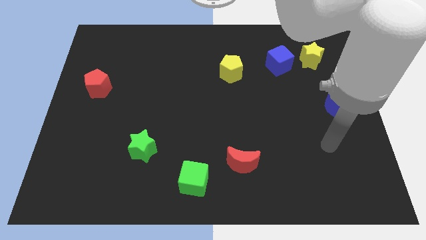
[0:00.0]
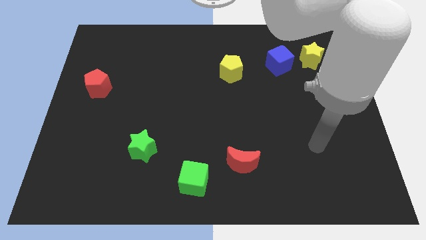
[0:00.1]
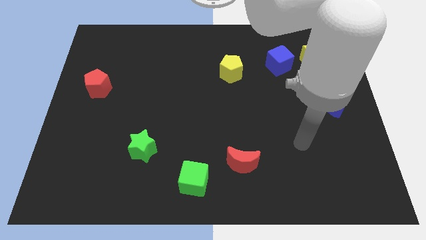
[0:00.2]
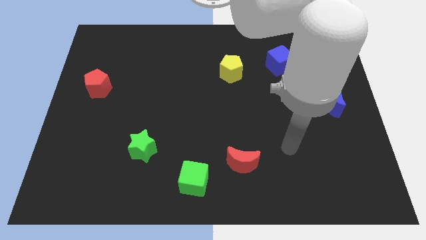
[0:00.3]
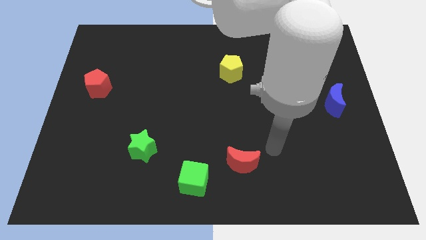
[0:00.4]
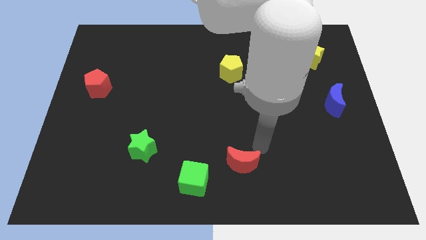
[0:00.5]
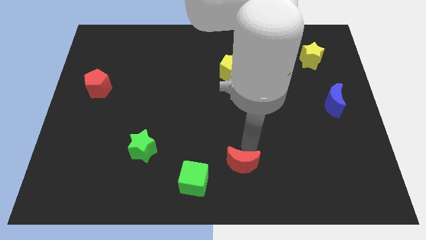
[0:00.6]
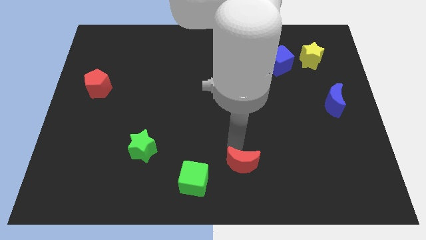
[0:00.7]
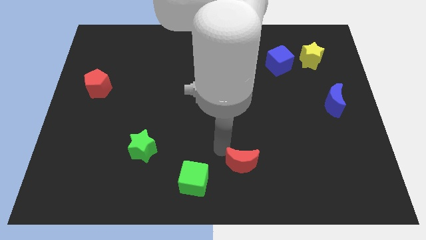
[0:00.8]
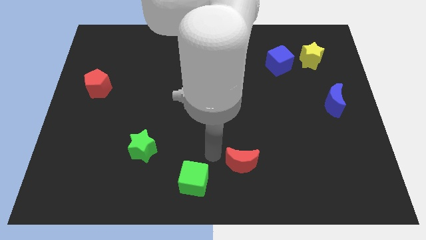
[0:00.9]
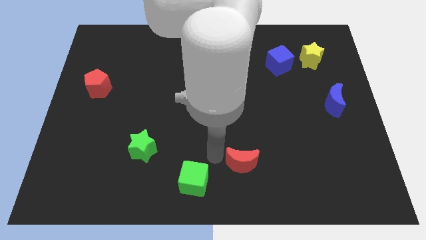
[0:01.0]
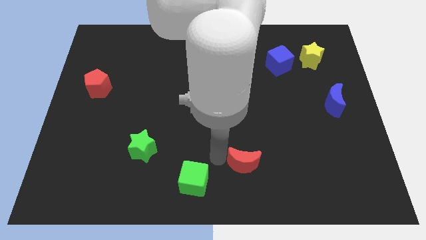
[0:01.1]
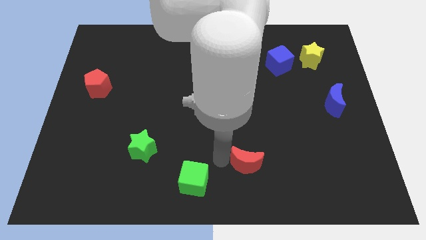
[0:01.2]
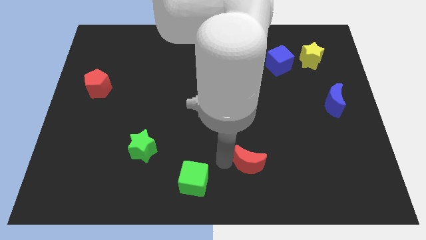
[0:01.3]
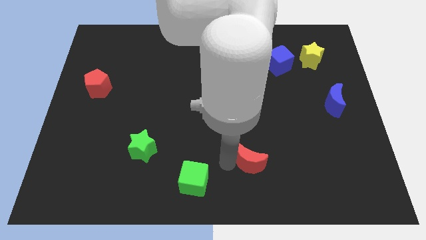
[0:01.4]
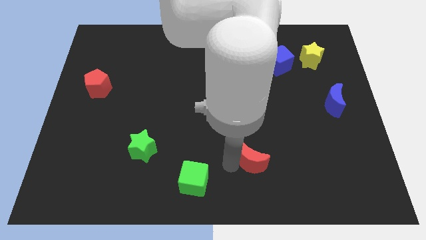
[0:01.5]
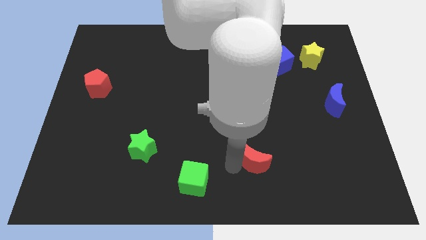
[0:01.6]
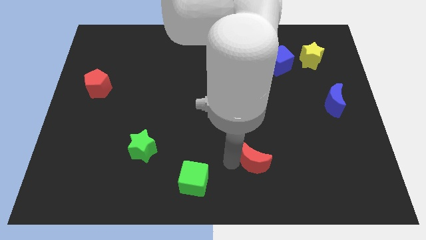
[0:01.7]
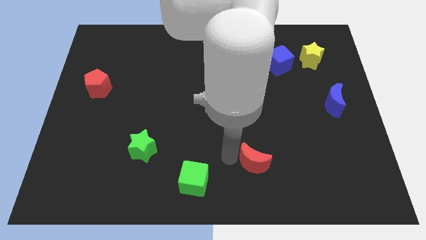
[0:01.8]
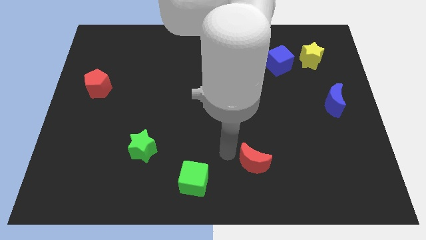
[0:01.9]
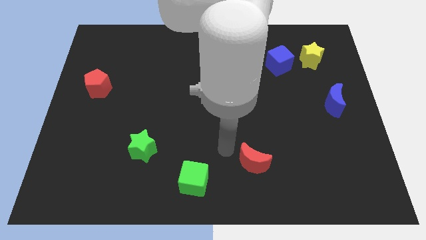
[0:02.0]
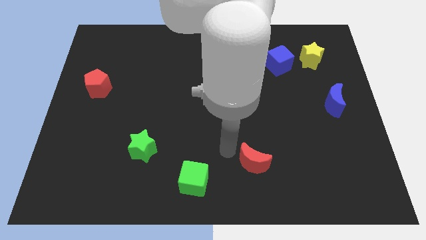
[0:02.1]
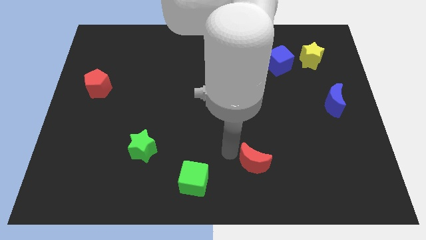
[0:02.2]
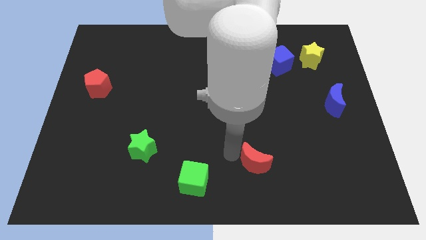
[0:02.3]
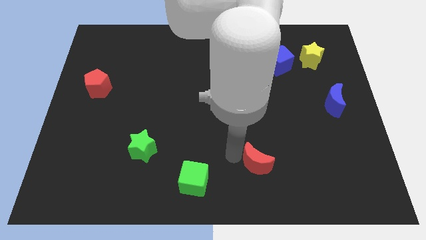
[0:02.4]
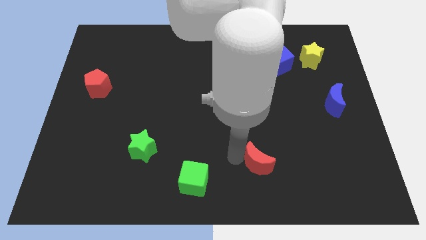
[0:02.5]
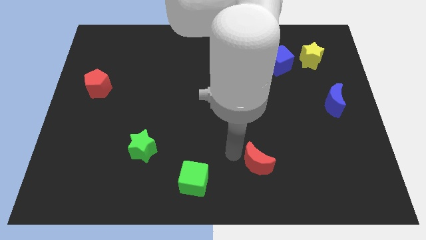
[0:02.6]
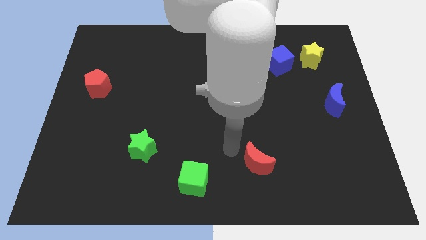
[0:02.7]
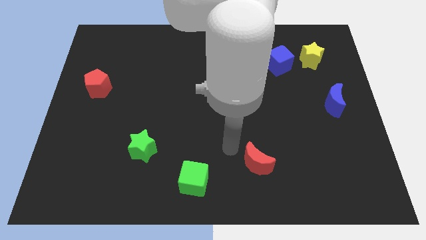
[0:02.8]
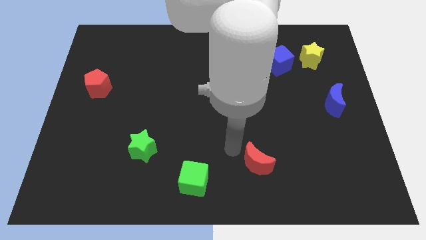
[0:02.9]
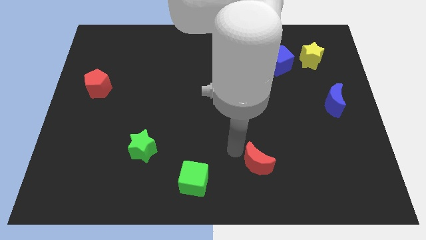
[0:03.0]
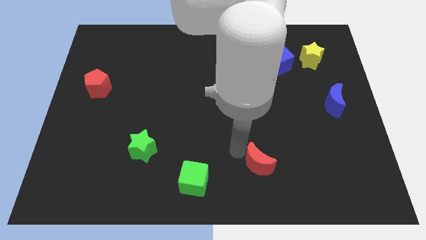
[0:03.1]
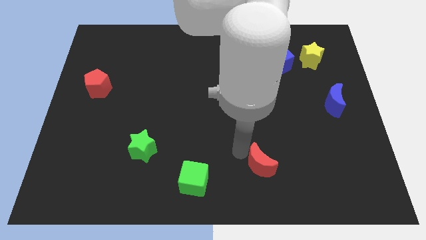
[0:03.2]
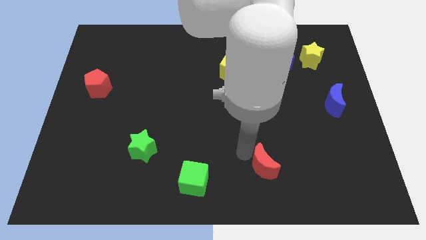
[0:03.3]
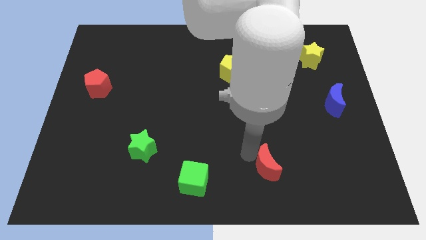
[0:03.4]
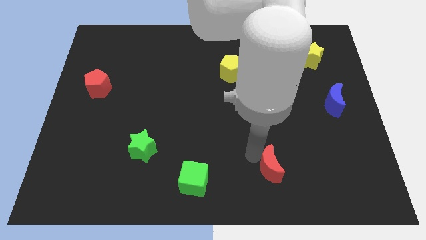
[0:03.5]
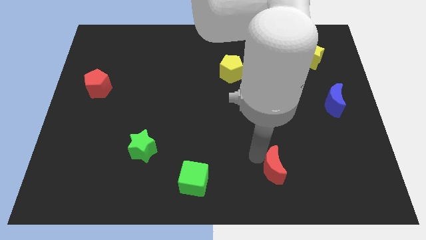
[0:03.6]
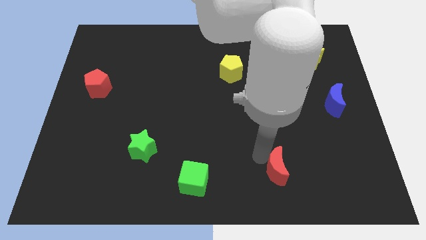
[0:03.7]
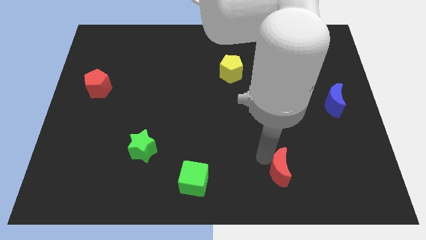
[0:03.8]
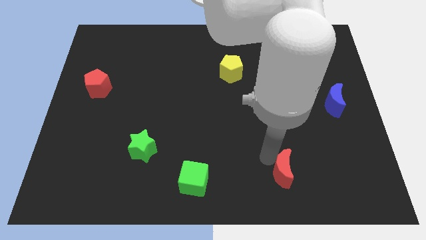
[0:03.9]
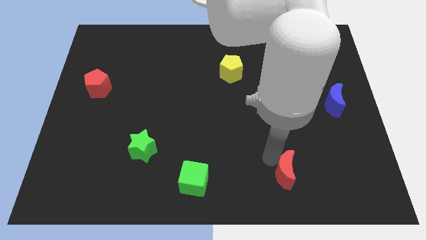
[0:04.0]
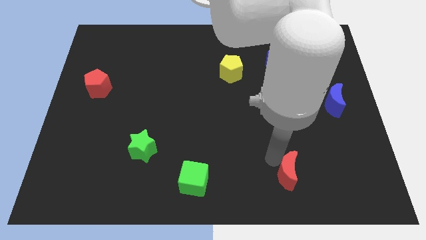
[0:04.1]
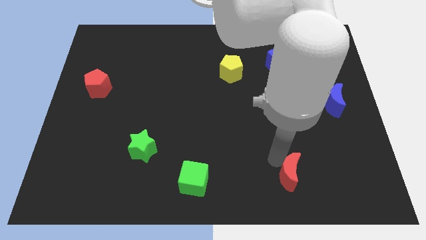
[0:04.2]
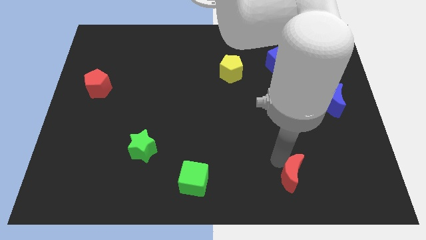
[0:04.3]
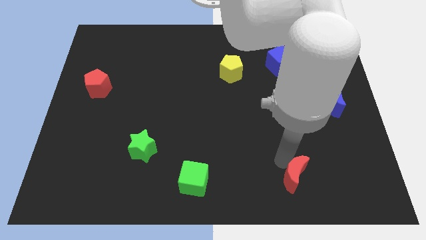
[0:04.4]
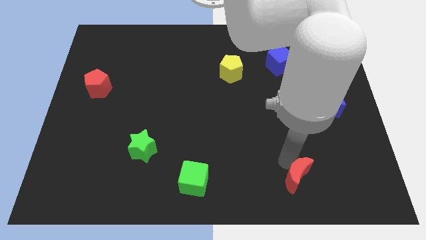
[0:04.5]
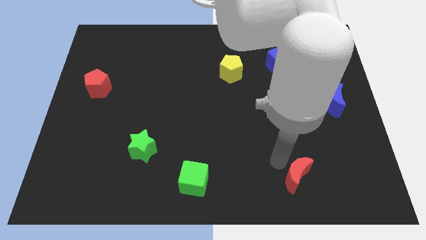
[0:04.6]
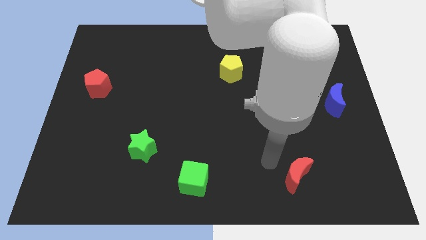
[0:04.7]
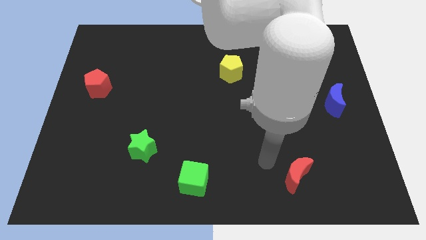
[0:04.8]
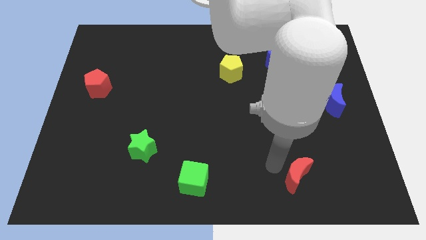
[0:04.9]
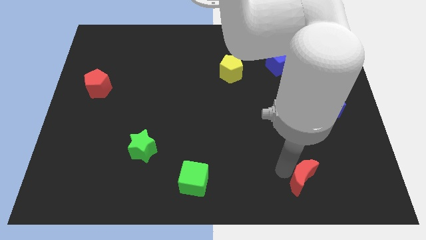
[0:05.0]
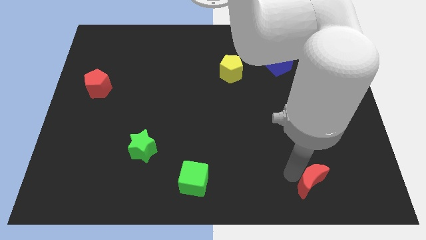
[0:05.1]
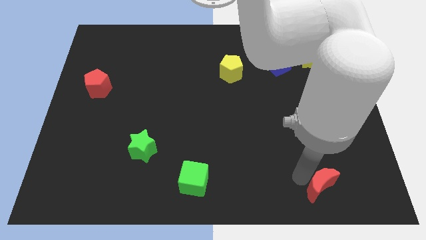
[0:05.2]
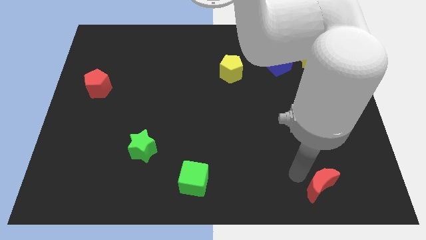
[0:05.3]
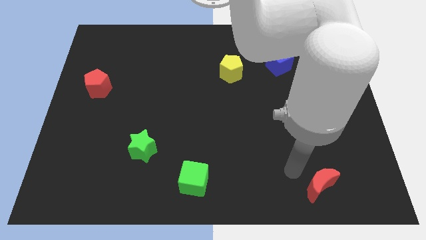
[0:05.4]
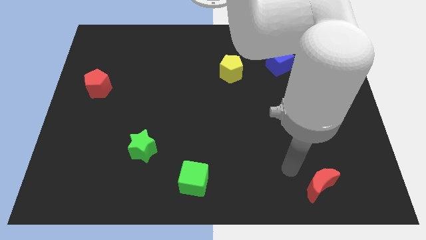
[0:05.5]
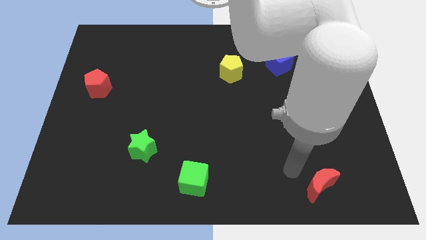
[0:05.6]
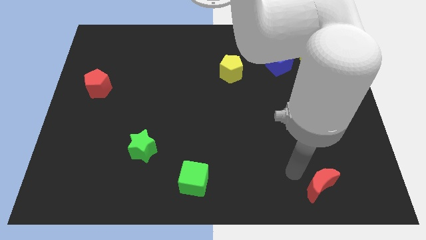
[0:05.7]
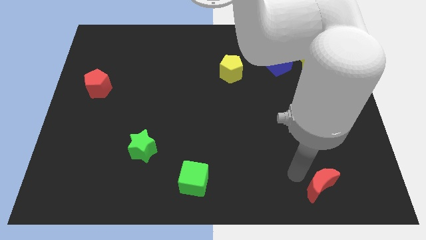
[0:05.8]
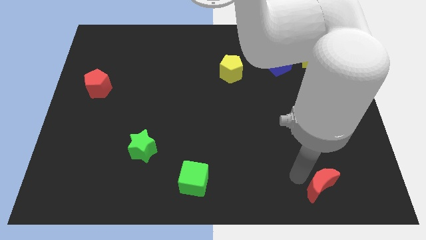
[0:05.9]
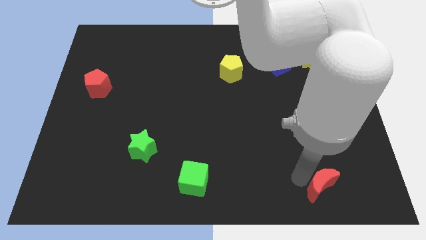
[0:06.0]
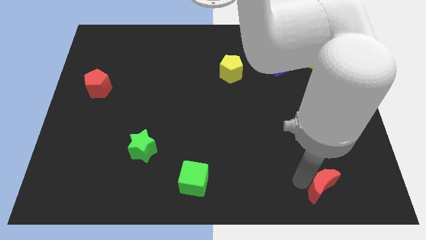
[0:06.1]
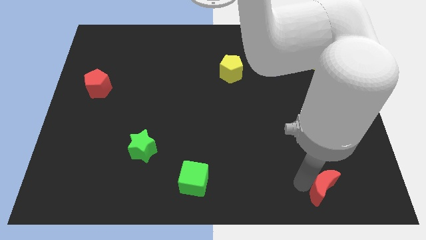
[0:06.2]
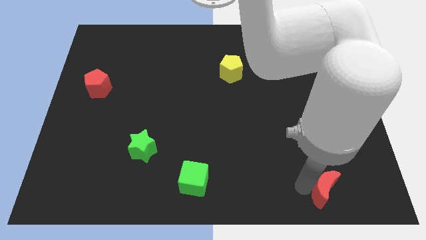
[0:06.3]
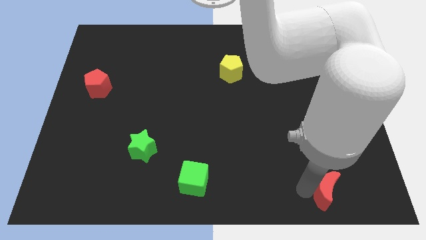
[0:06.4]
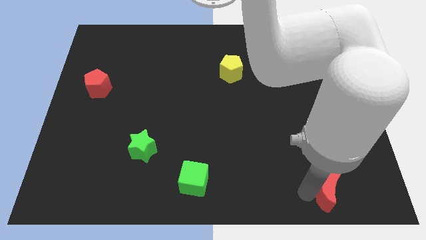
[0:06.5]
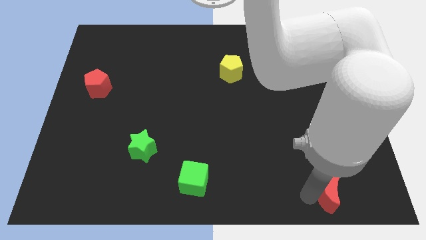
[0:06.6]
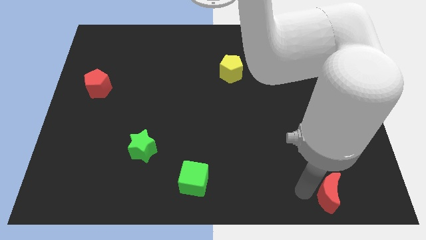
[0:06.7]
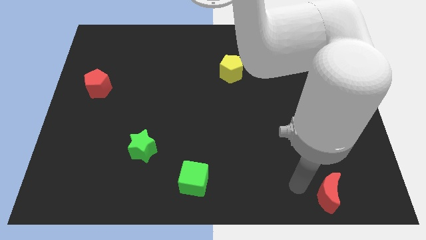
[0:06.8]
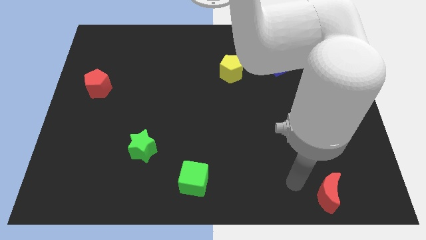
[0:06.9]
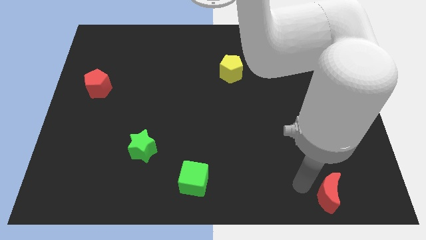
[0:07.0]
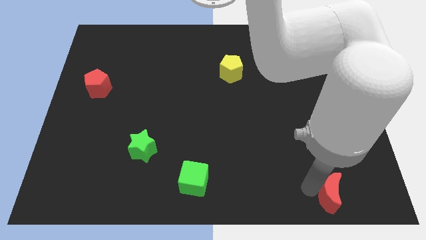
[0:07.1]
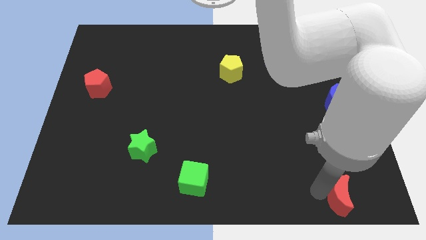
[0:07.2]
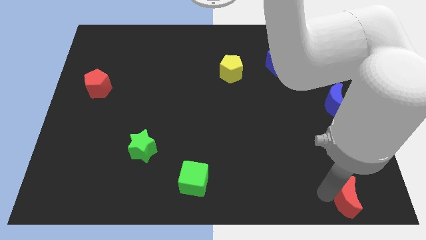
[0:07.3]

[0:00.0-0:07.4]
push the red moon to the bottom right
